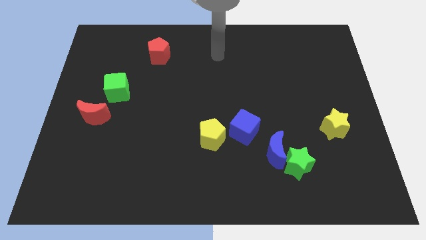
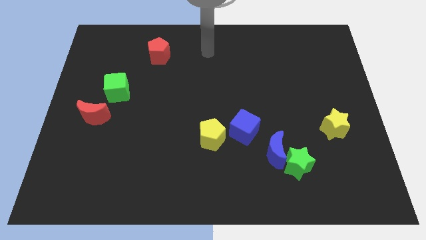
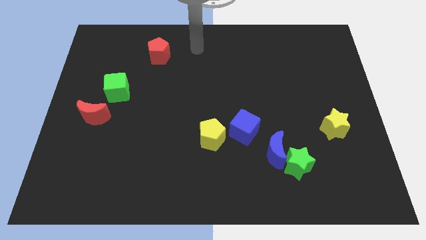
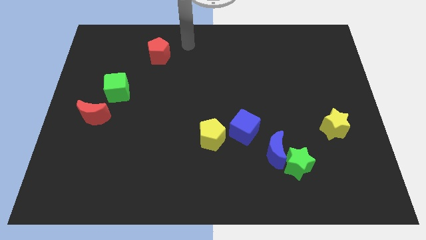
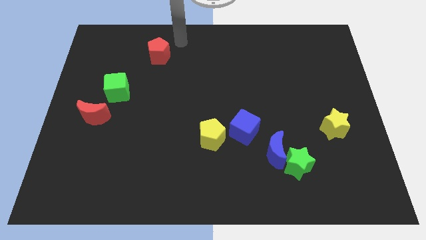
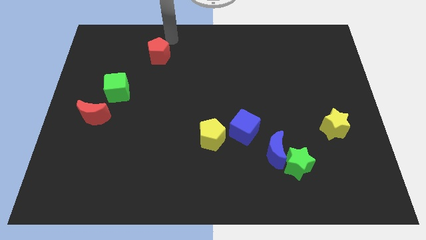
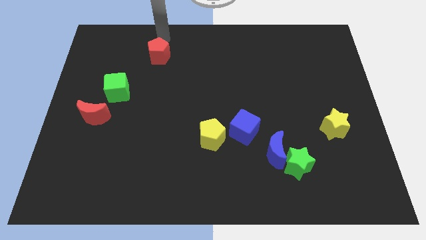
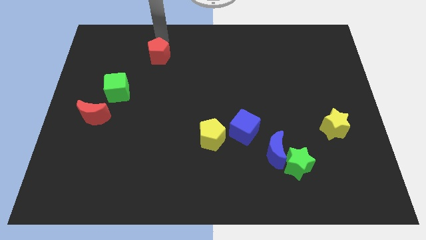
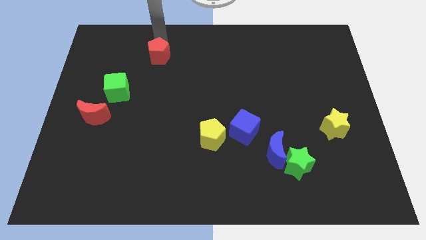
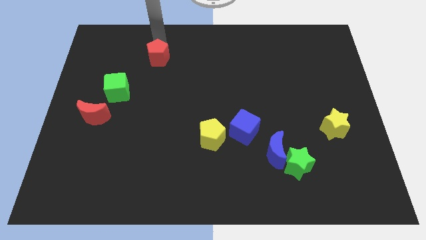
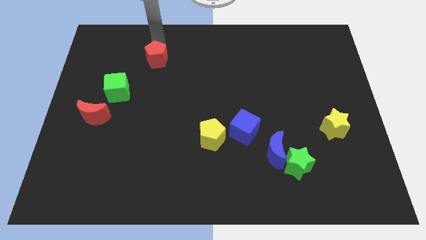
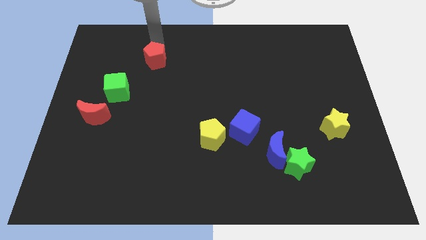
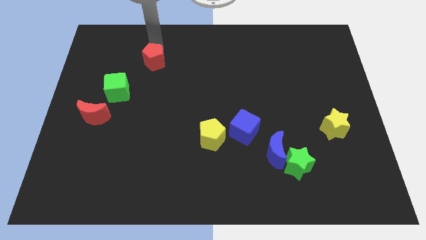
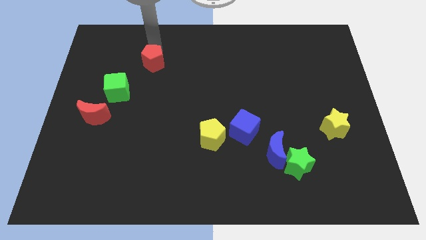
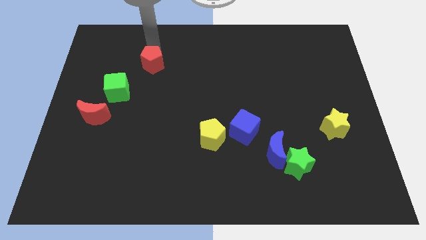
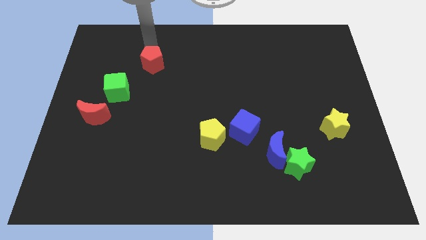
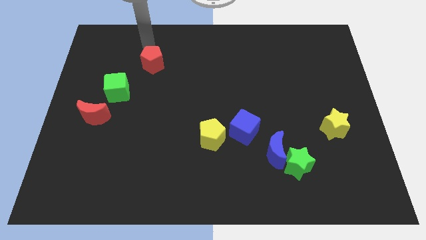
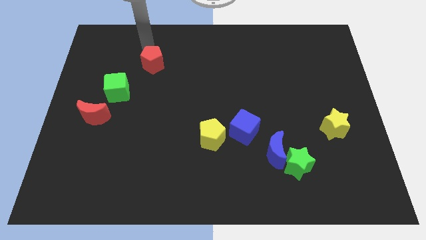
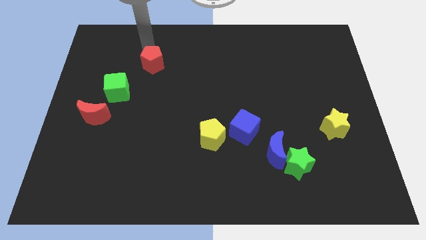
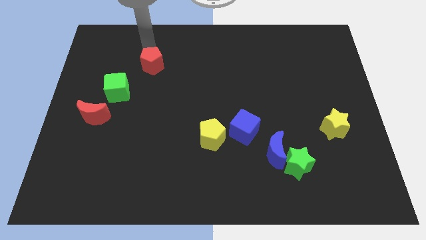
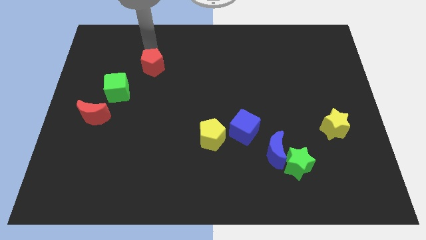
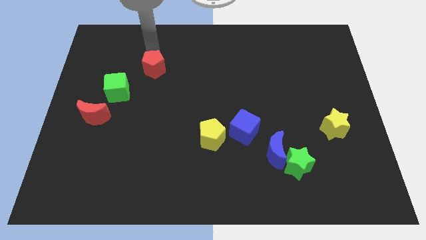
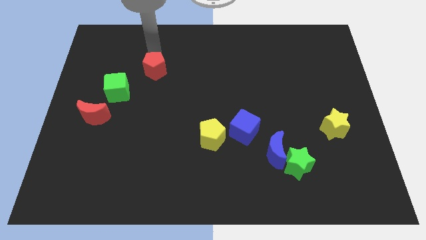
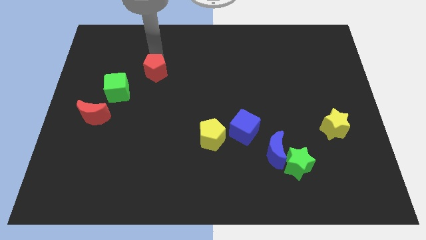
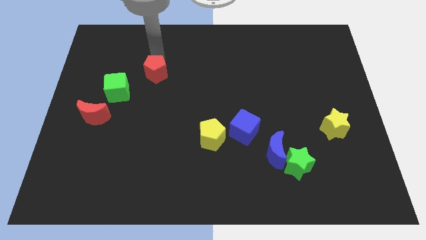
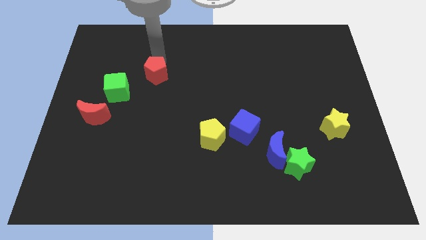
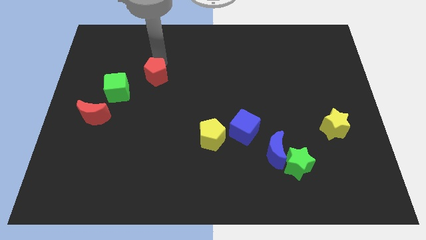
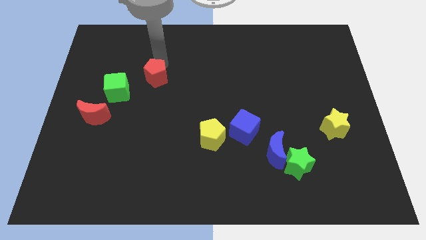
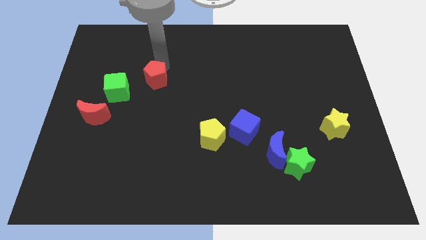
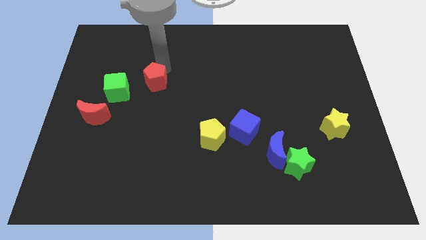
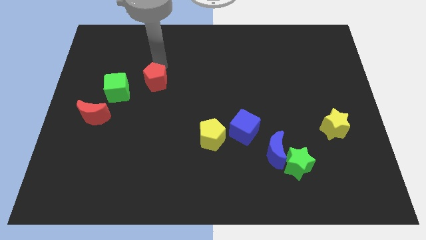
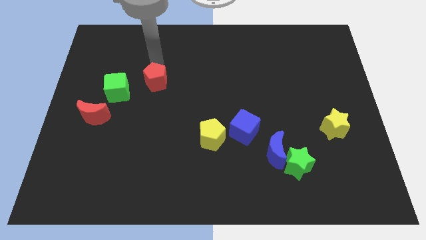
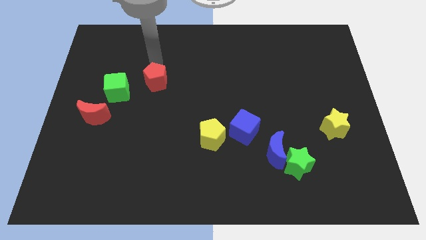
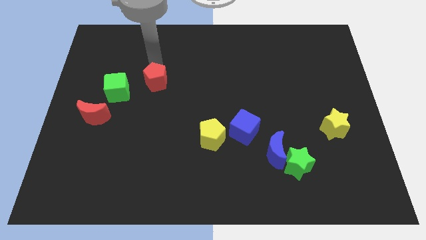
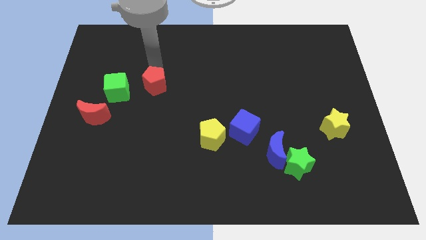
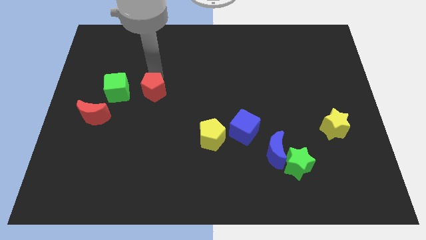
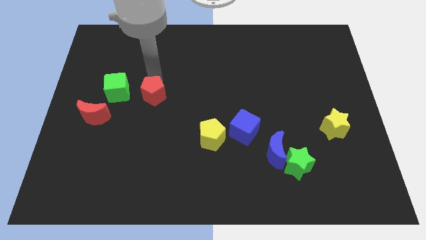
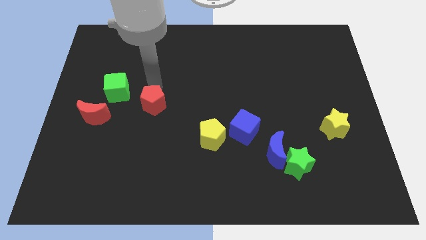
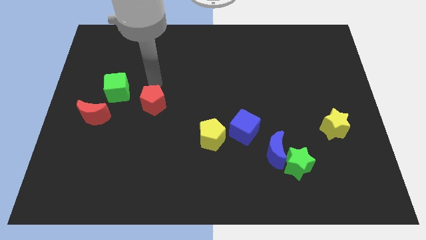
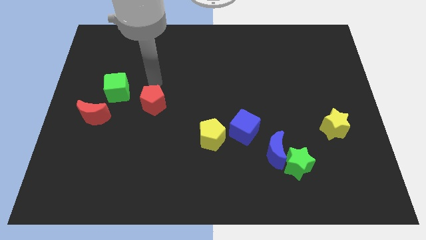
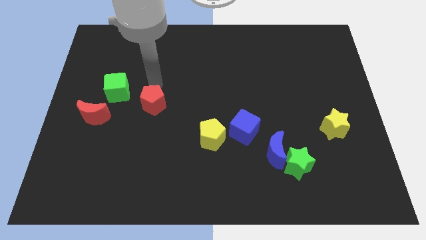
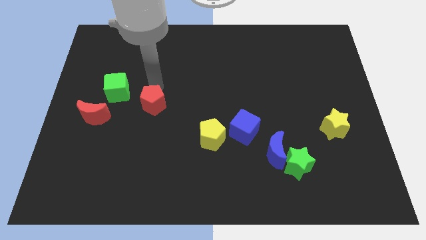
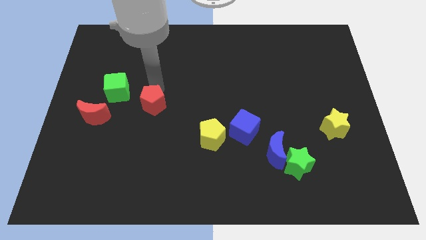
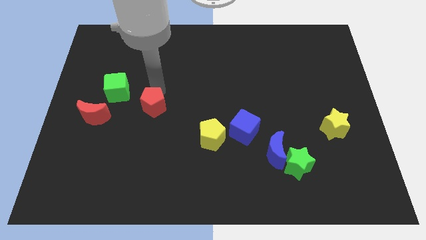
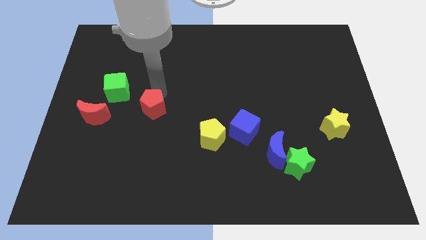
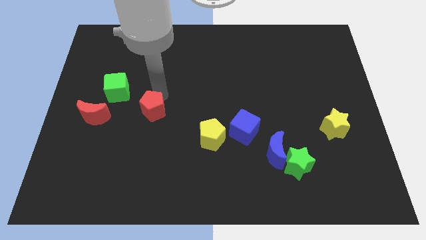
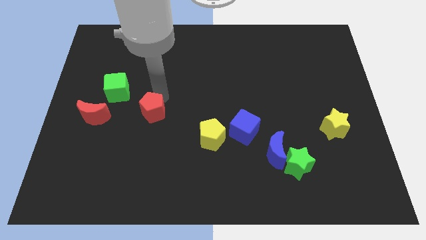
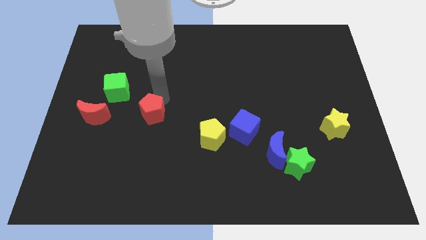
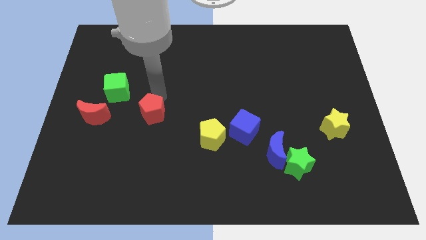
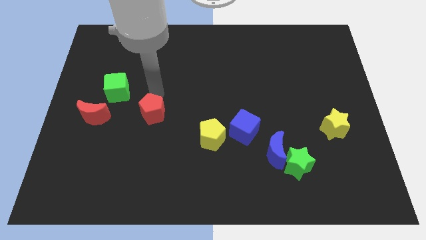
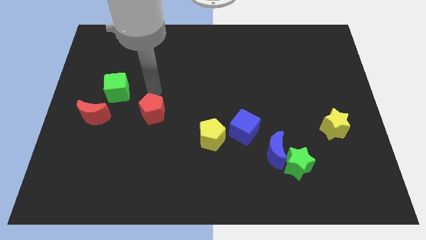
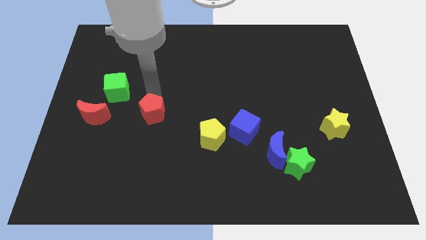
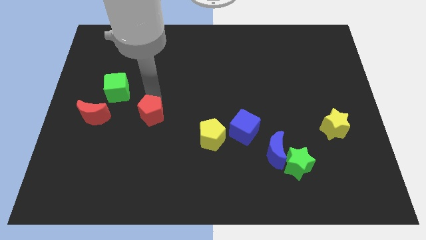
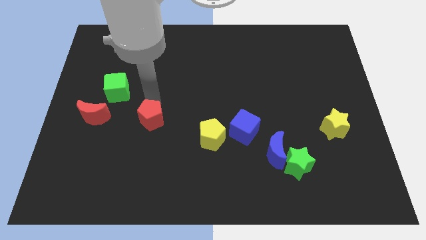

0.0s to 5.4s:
move the red pentagon downwards

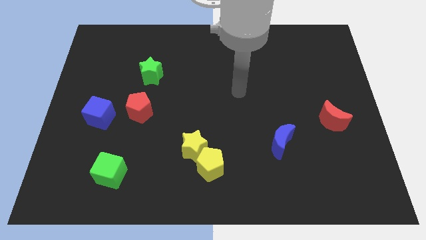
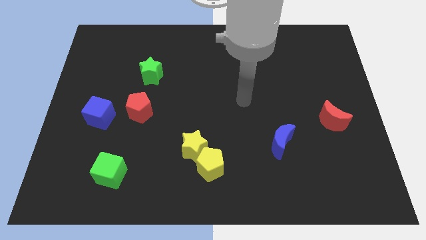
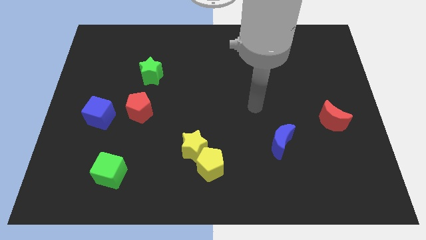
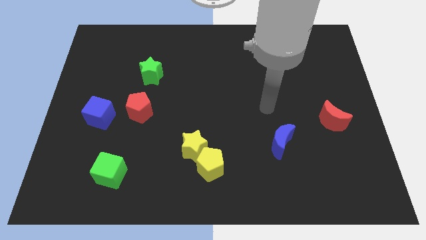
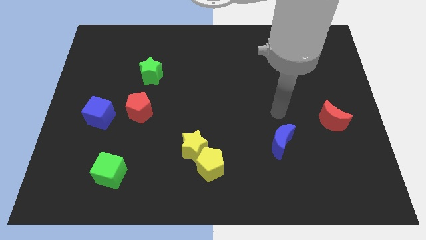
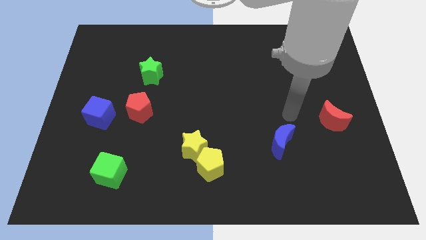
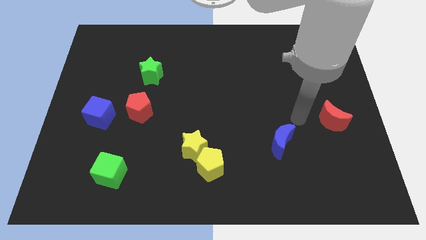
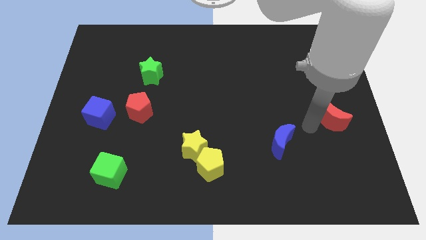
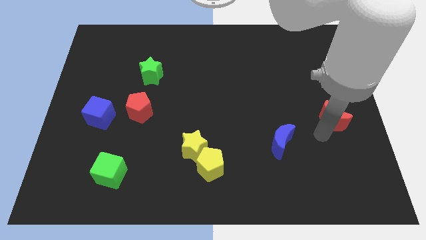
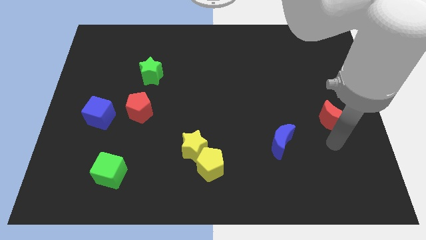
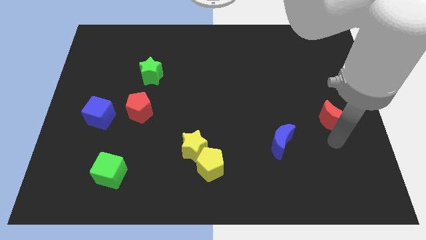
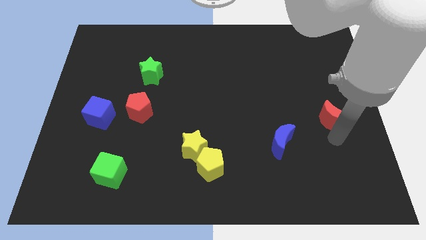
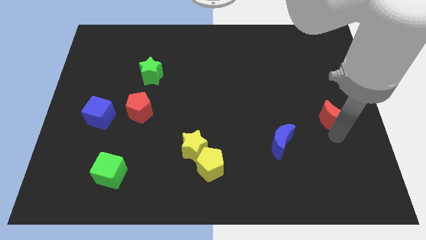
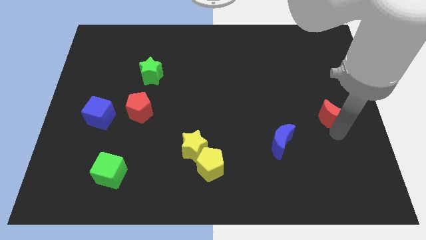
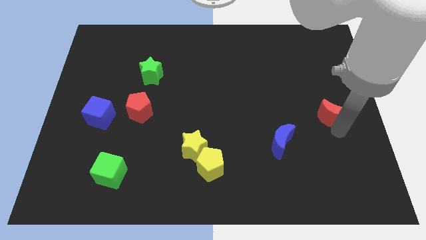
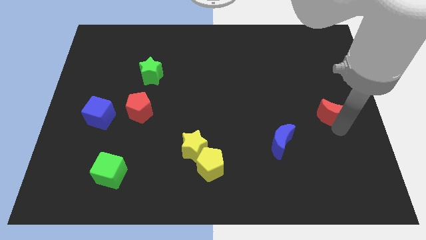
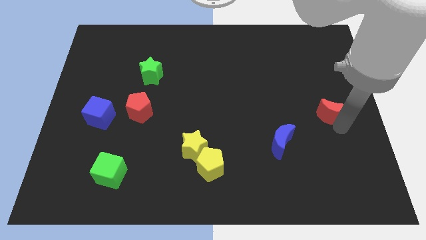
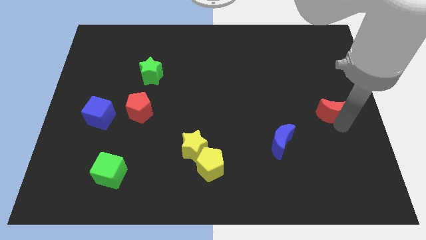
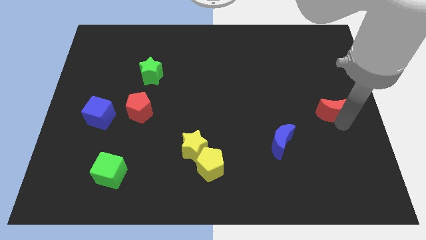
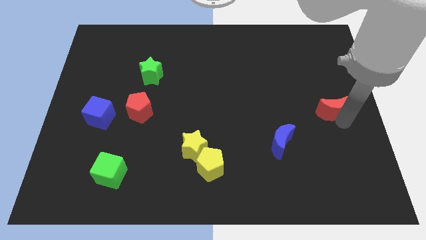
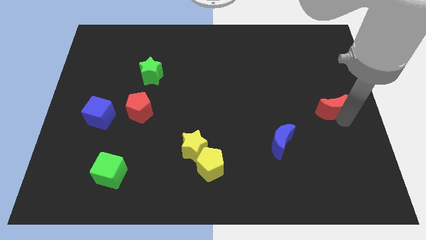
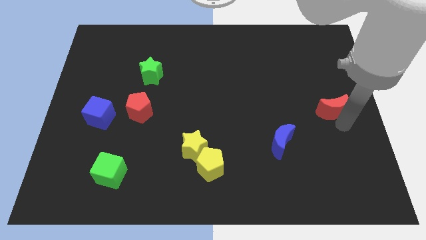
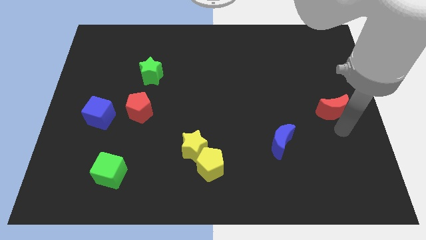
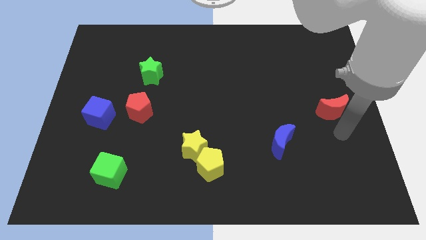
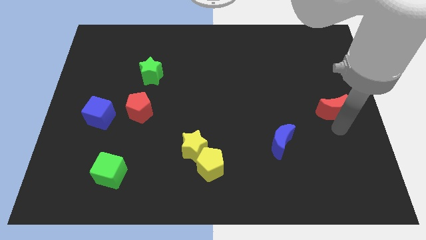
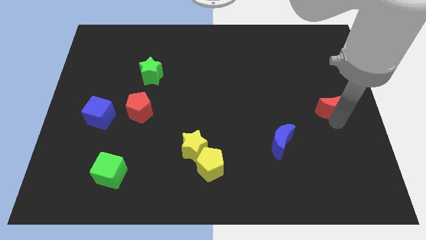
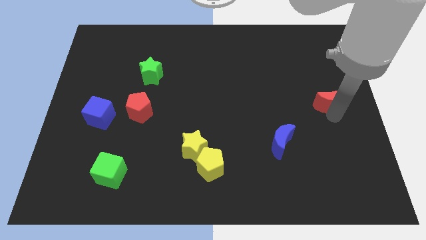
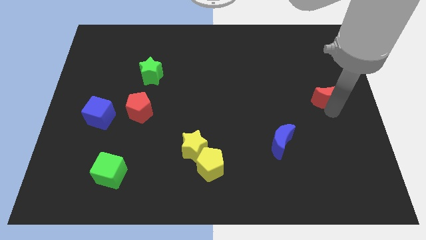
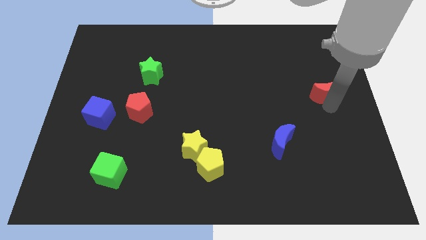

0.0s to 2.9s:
slightly slide the red moon upwards
